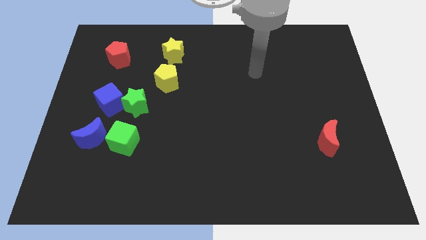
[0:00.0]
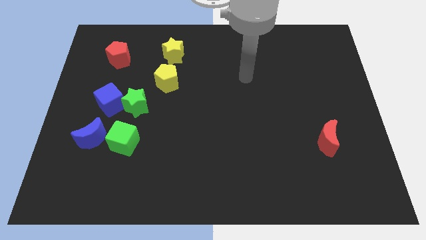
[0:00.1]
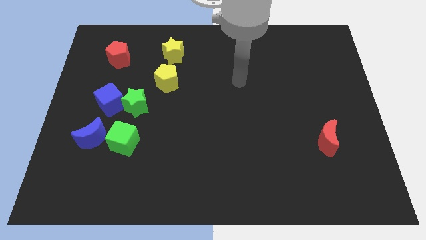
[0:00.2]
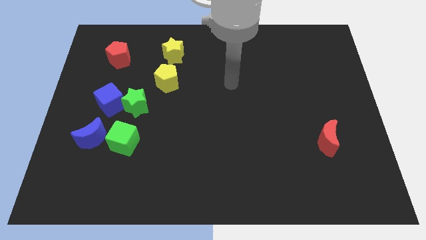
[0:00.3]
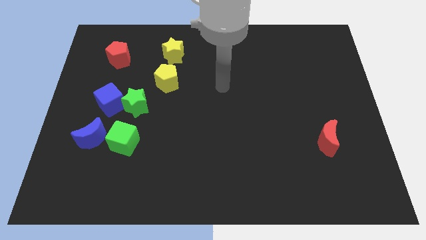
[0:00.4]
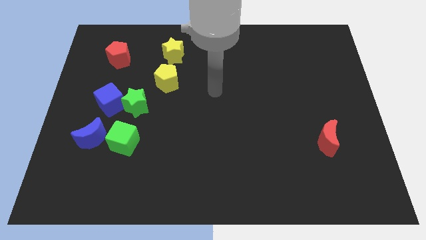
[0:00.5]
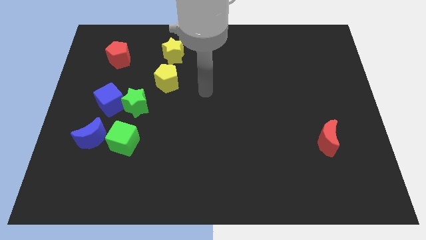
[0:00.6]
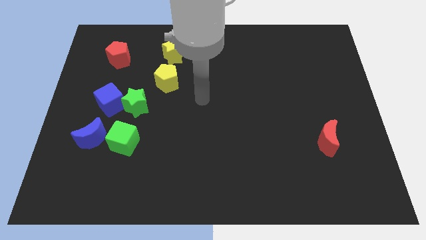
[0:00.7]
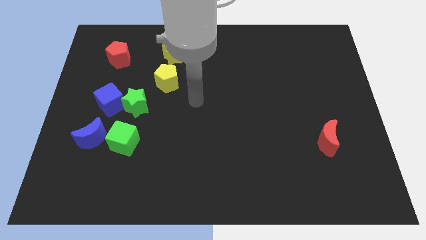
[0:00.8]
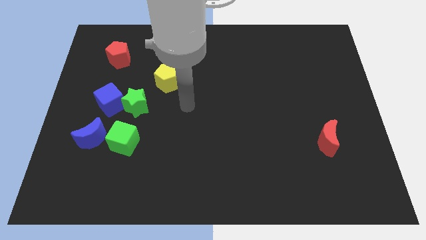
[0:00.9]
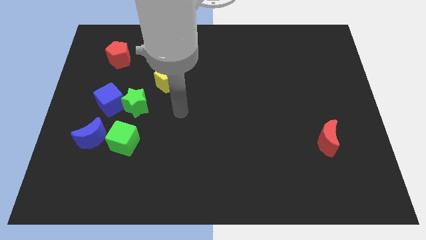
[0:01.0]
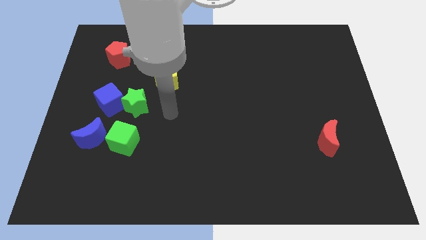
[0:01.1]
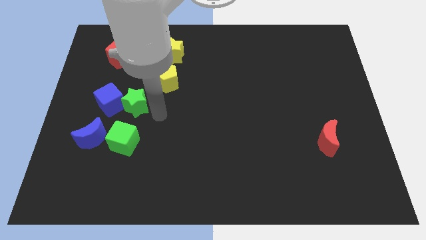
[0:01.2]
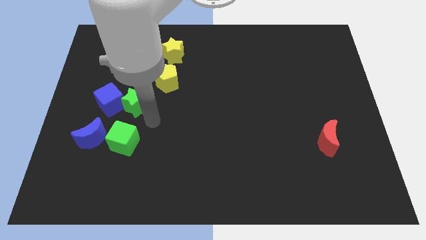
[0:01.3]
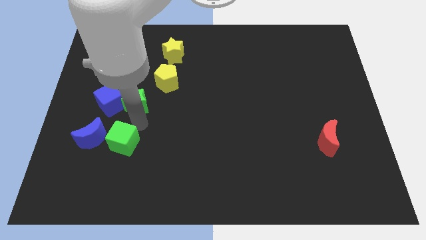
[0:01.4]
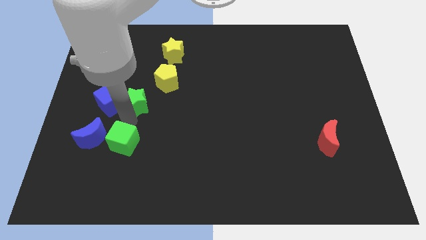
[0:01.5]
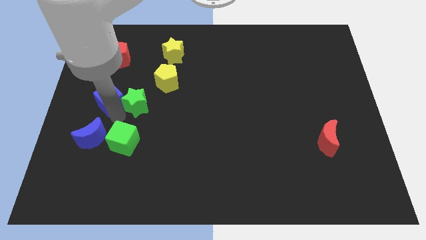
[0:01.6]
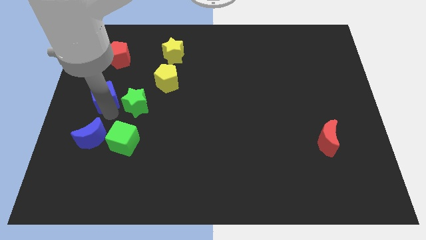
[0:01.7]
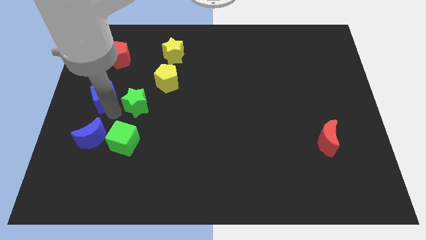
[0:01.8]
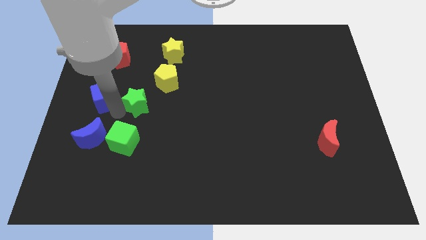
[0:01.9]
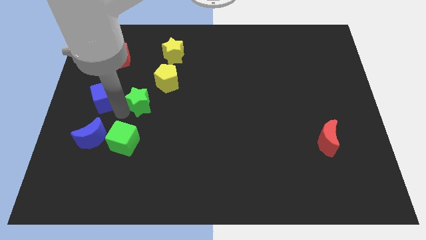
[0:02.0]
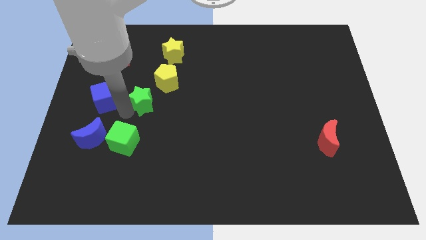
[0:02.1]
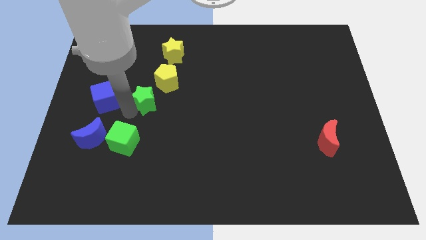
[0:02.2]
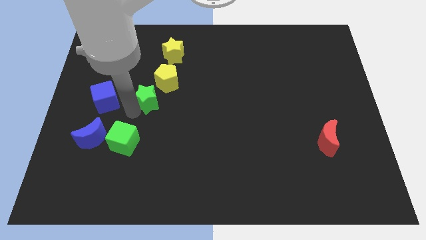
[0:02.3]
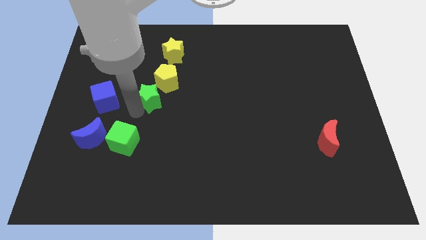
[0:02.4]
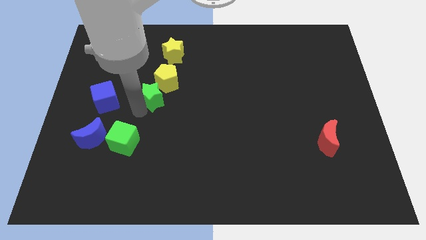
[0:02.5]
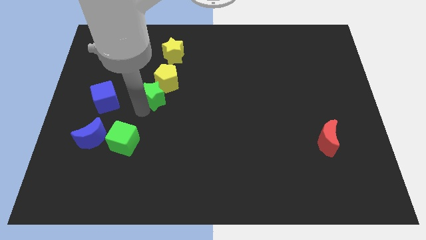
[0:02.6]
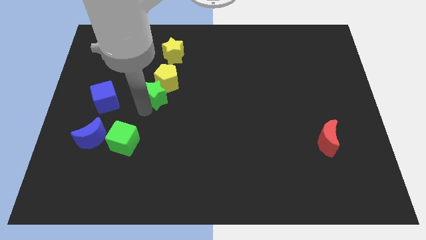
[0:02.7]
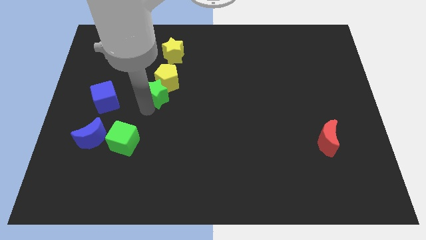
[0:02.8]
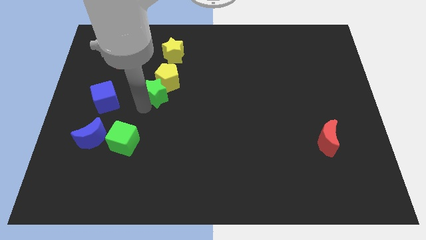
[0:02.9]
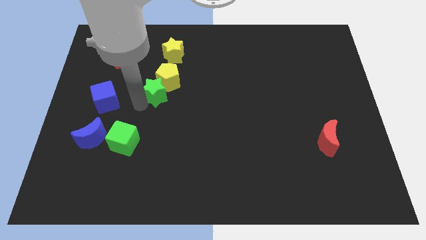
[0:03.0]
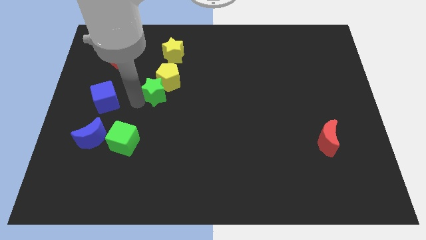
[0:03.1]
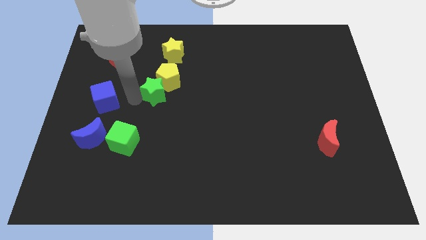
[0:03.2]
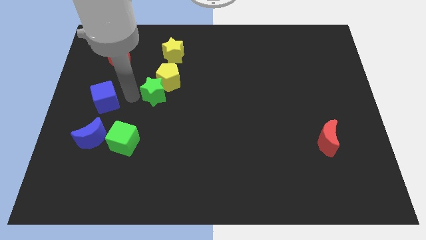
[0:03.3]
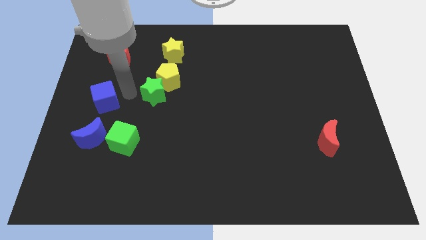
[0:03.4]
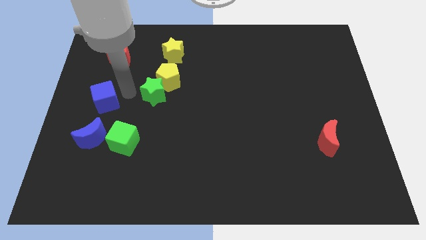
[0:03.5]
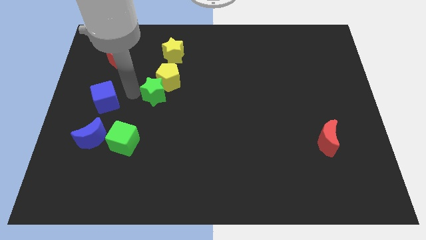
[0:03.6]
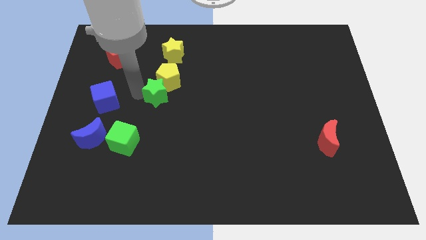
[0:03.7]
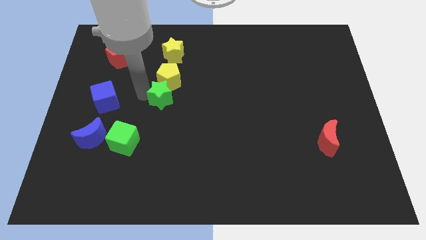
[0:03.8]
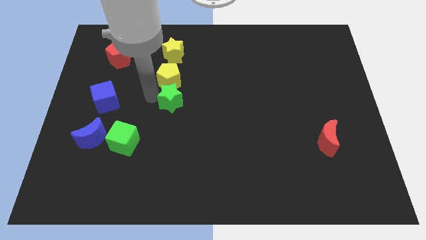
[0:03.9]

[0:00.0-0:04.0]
push the green star right somewhat

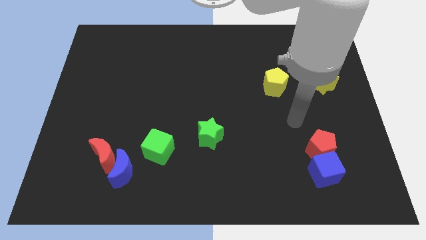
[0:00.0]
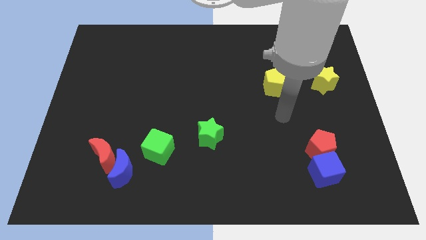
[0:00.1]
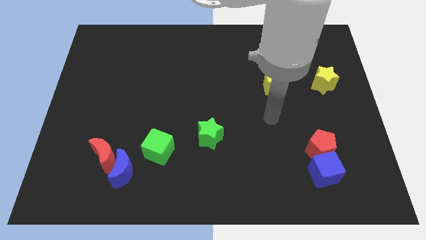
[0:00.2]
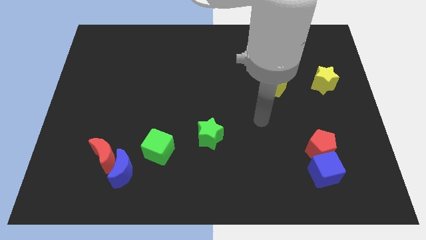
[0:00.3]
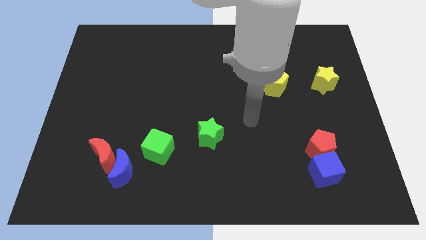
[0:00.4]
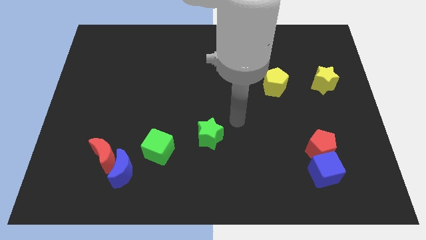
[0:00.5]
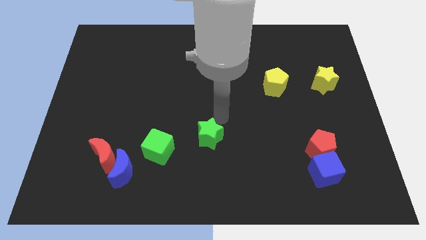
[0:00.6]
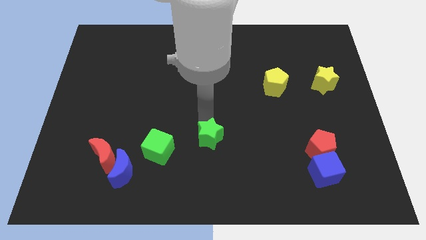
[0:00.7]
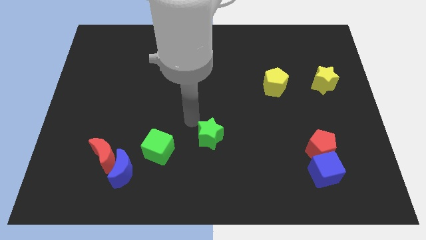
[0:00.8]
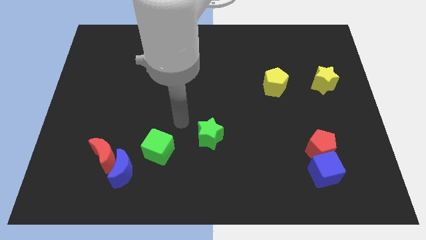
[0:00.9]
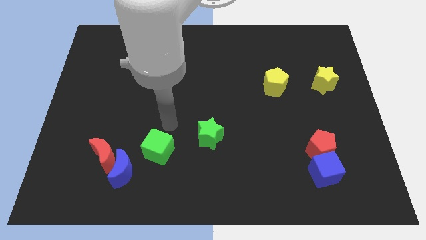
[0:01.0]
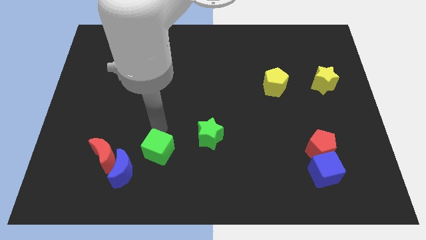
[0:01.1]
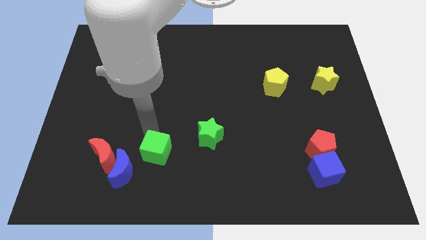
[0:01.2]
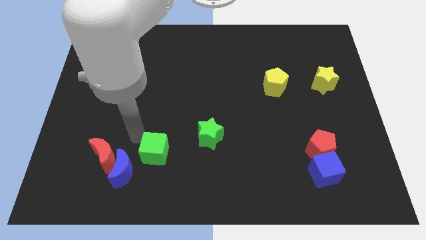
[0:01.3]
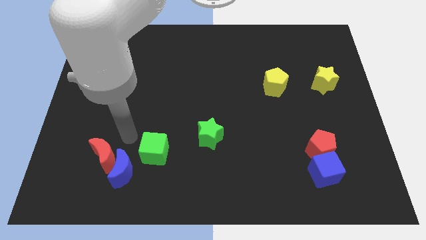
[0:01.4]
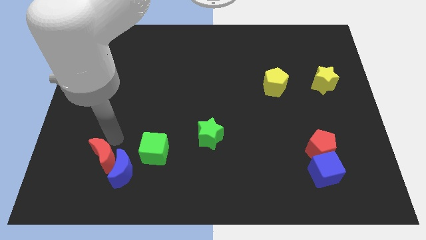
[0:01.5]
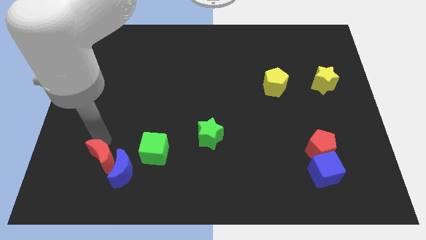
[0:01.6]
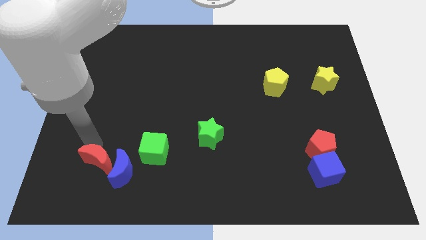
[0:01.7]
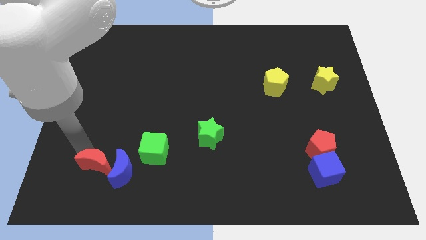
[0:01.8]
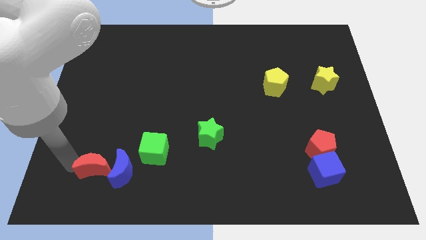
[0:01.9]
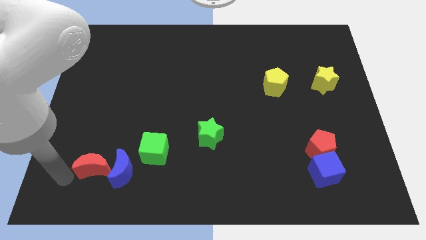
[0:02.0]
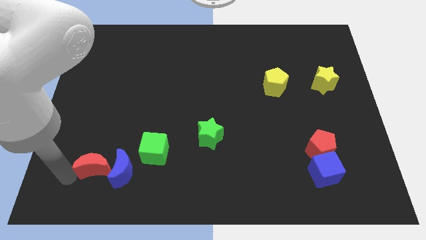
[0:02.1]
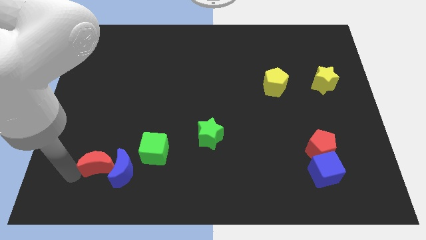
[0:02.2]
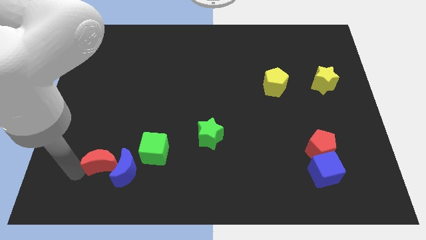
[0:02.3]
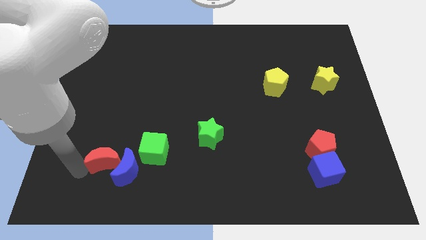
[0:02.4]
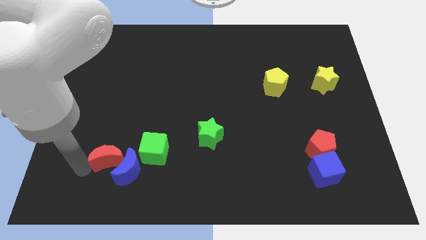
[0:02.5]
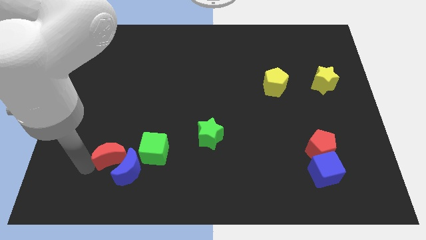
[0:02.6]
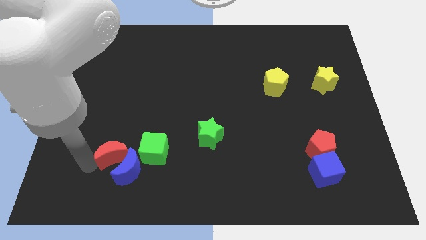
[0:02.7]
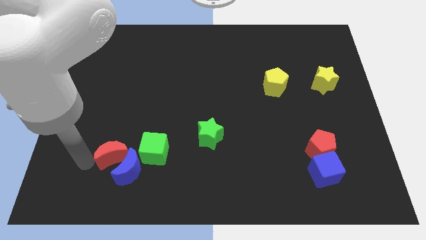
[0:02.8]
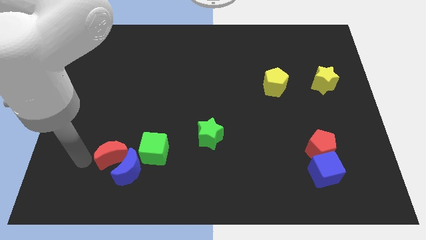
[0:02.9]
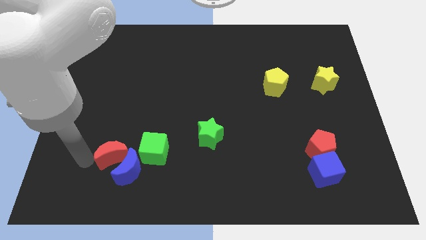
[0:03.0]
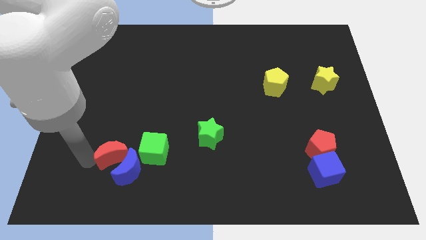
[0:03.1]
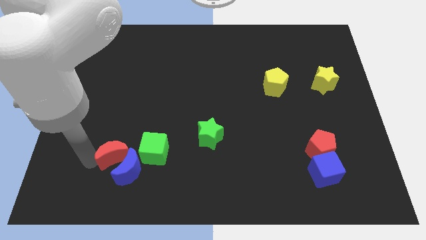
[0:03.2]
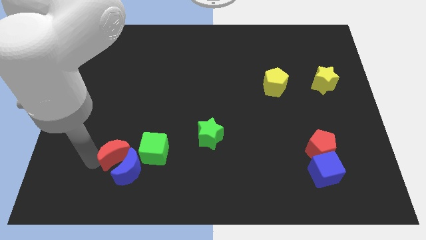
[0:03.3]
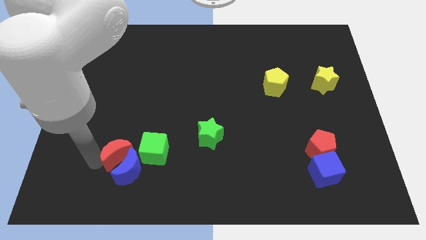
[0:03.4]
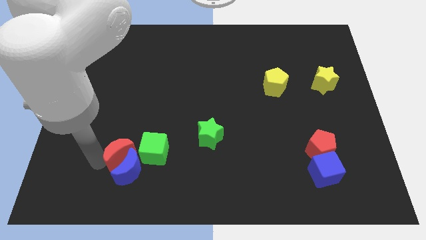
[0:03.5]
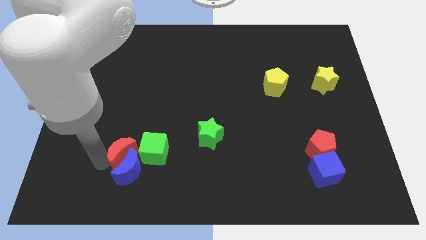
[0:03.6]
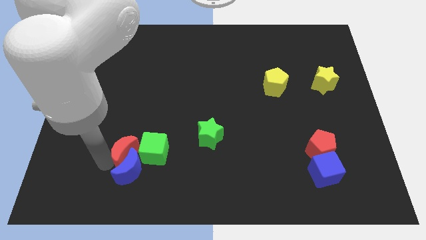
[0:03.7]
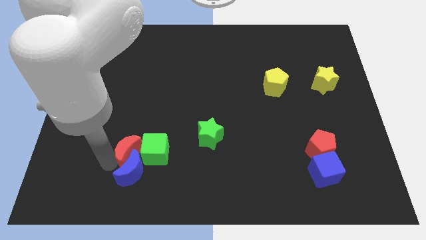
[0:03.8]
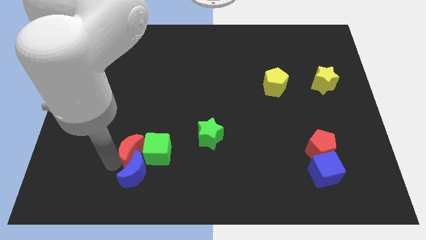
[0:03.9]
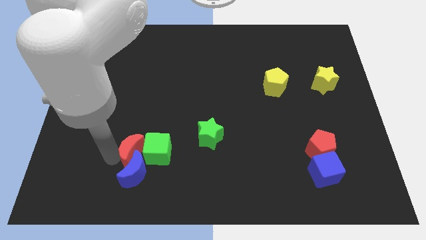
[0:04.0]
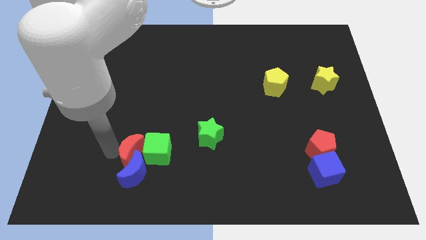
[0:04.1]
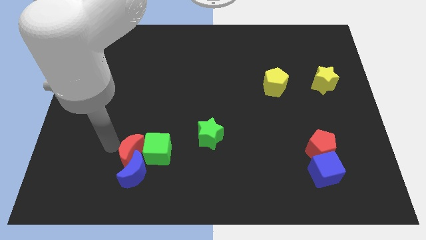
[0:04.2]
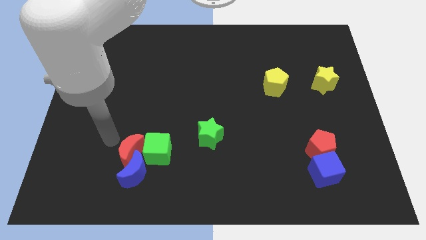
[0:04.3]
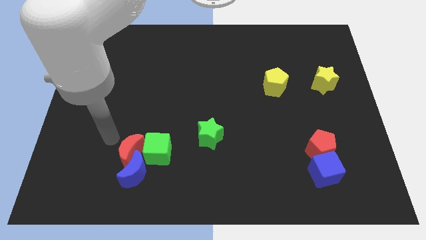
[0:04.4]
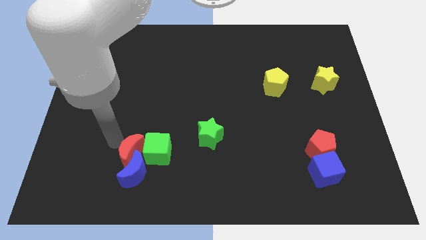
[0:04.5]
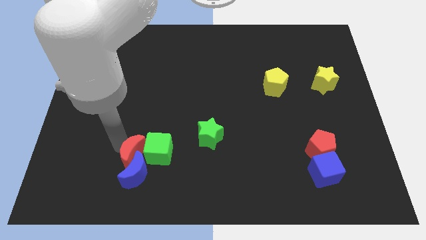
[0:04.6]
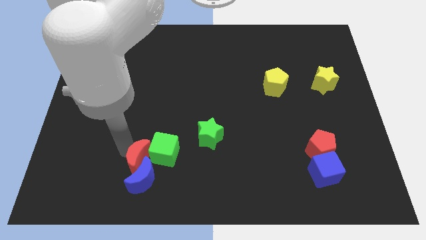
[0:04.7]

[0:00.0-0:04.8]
slightly push the red moon right
